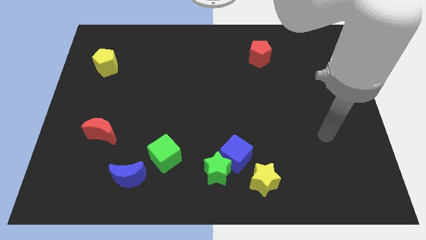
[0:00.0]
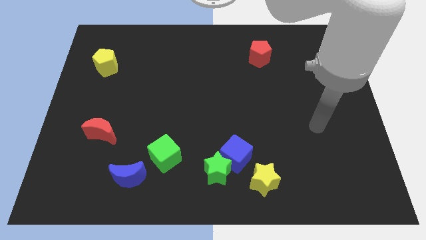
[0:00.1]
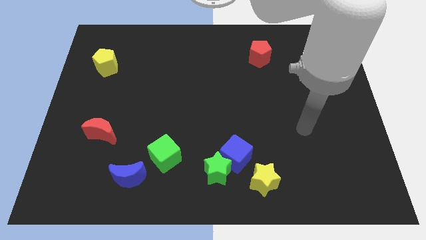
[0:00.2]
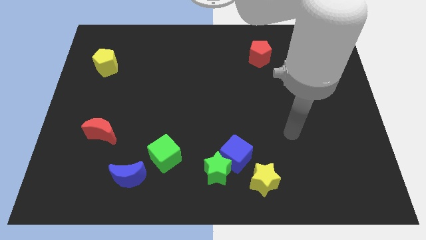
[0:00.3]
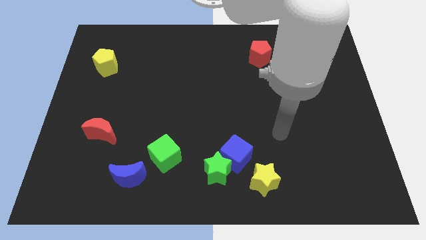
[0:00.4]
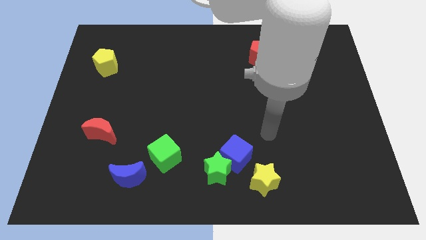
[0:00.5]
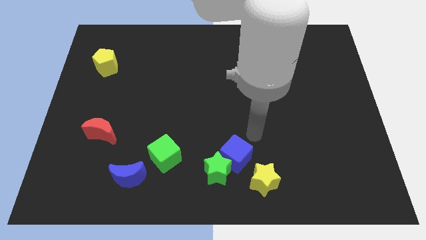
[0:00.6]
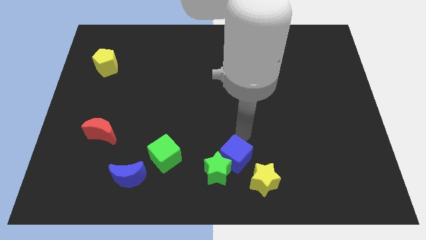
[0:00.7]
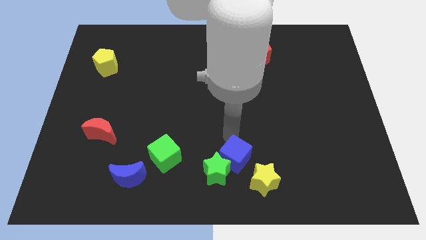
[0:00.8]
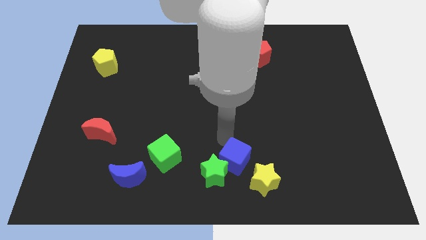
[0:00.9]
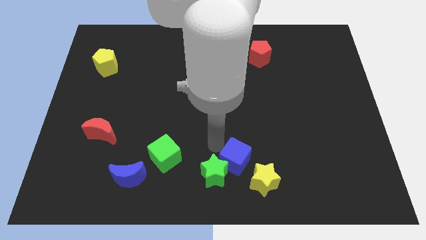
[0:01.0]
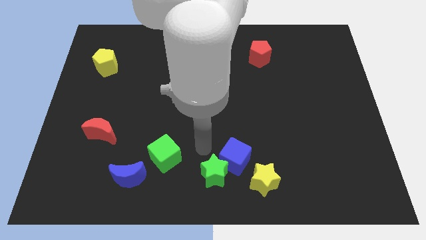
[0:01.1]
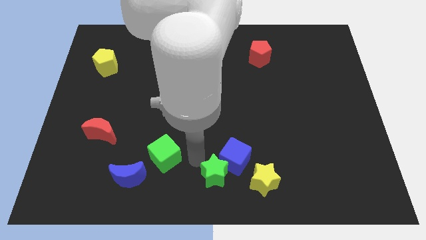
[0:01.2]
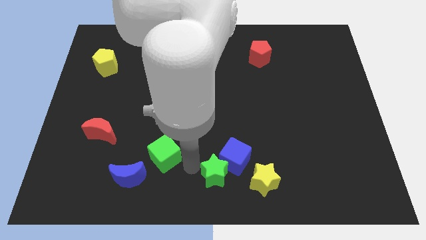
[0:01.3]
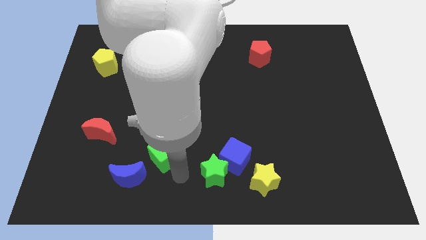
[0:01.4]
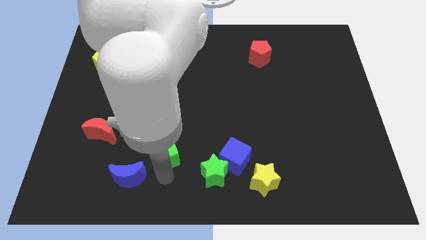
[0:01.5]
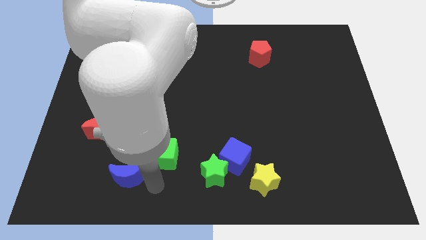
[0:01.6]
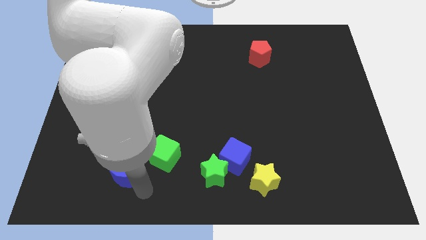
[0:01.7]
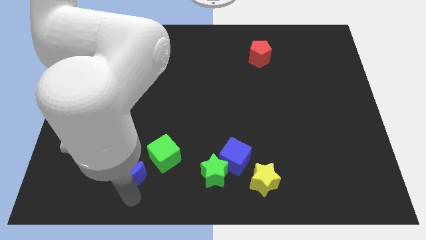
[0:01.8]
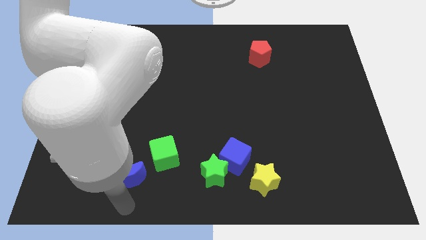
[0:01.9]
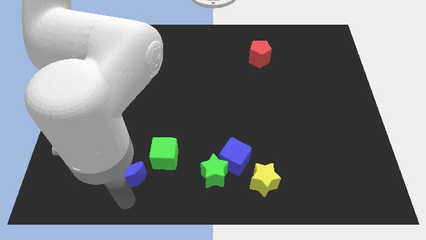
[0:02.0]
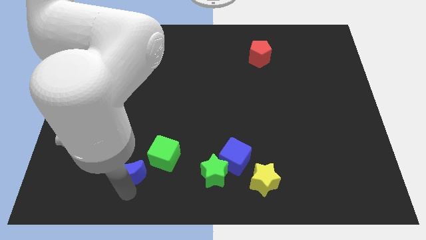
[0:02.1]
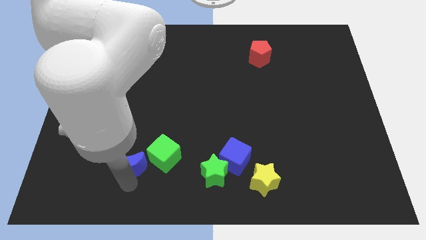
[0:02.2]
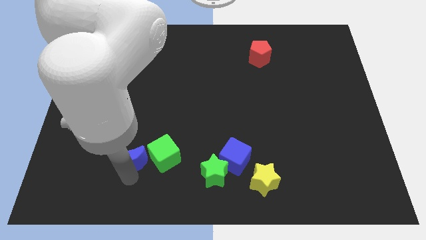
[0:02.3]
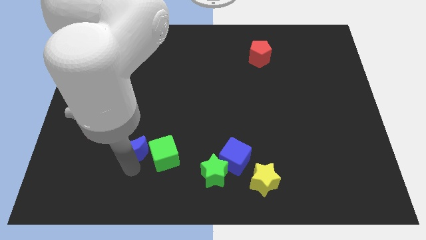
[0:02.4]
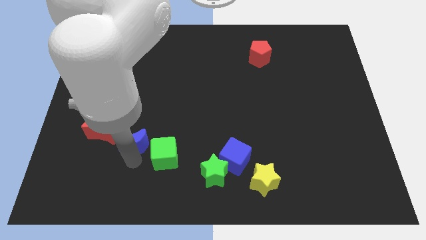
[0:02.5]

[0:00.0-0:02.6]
slightly slide the blue moon up

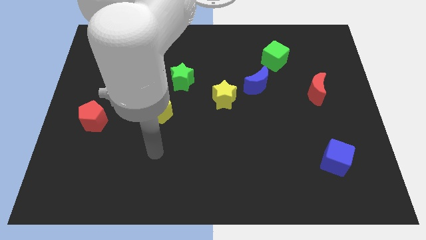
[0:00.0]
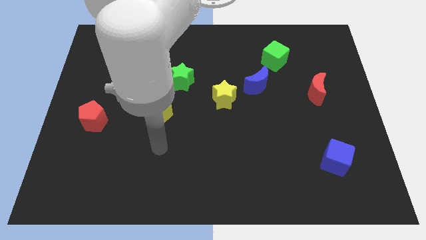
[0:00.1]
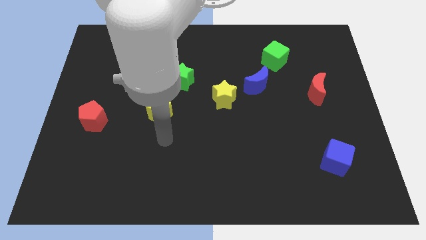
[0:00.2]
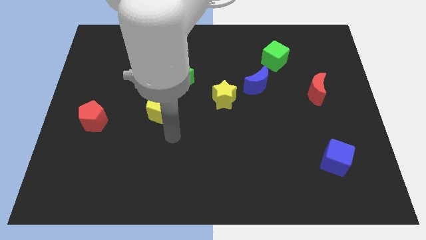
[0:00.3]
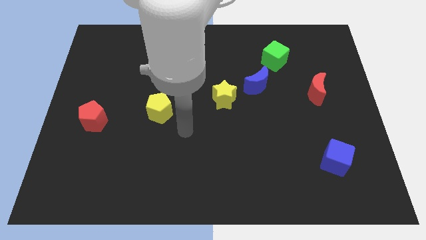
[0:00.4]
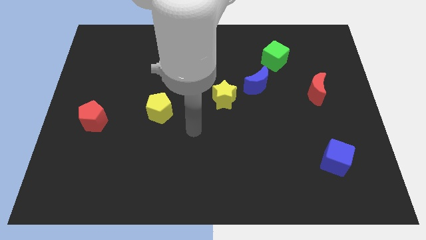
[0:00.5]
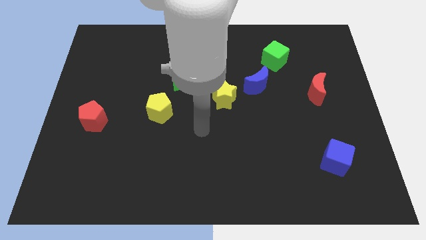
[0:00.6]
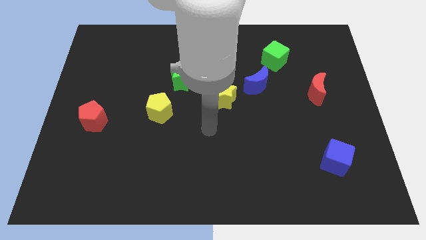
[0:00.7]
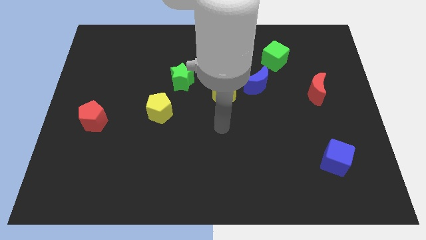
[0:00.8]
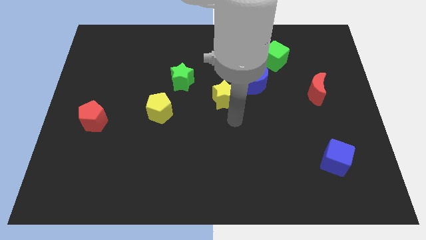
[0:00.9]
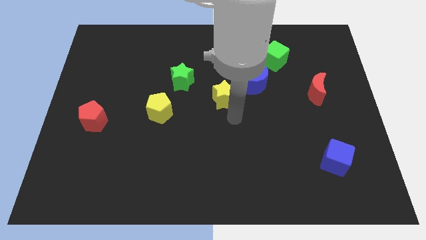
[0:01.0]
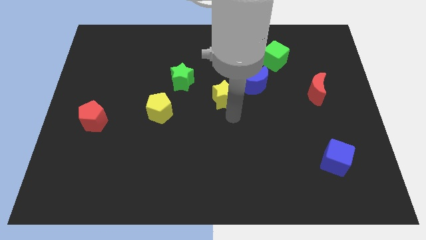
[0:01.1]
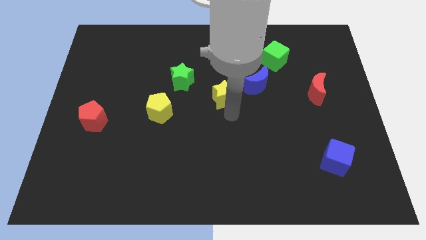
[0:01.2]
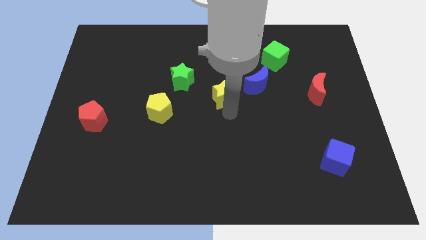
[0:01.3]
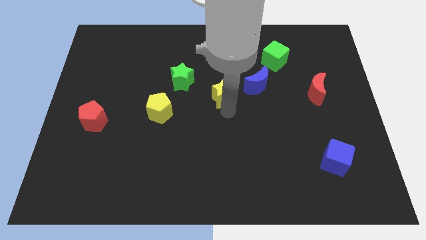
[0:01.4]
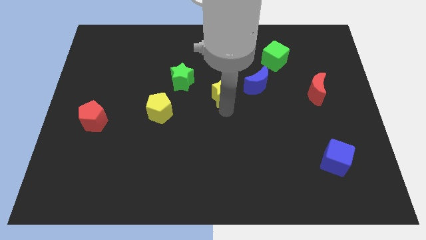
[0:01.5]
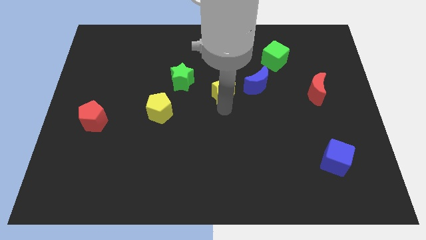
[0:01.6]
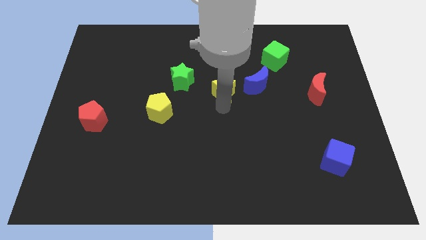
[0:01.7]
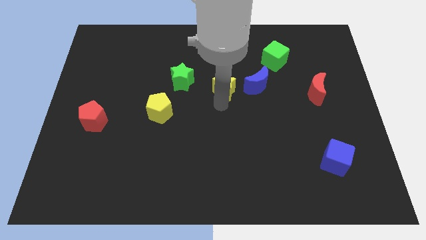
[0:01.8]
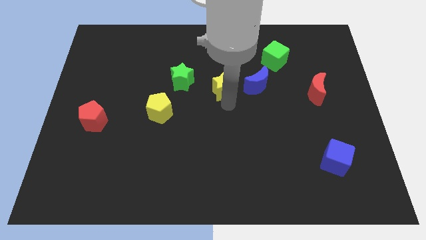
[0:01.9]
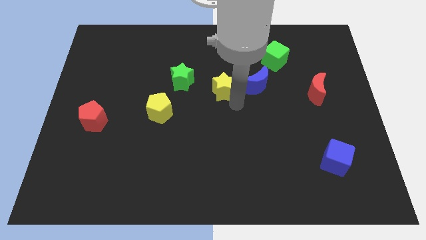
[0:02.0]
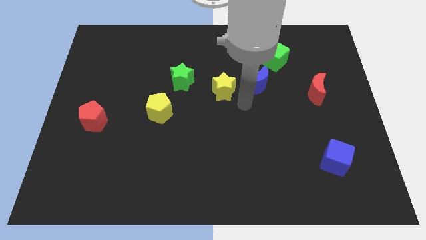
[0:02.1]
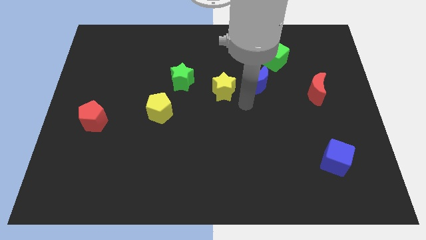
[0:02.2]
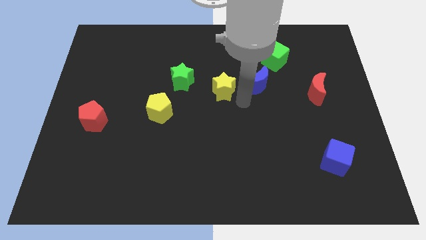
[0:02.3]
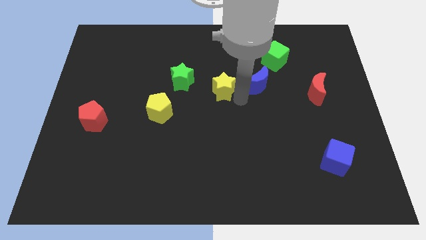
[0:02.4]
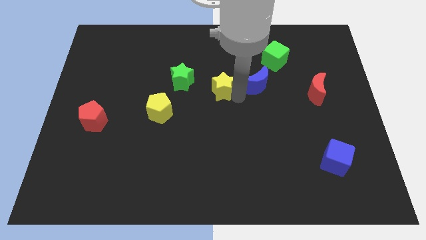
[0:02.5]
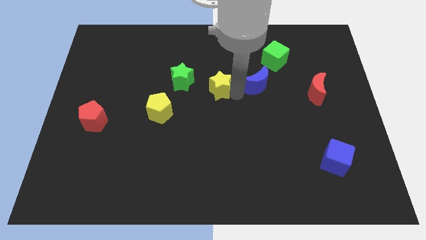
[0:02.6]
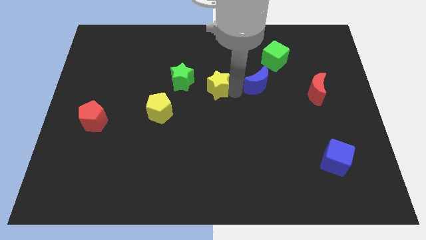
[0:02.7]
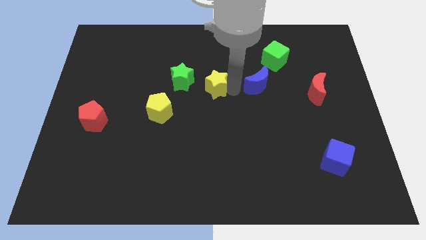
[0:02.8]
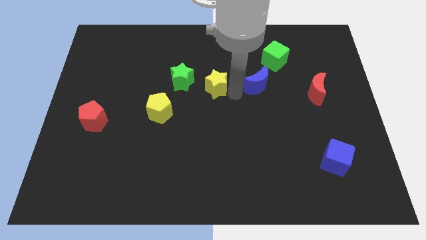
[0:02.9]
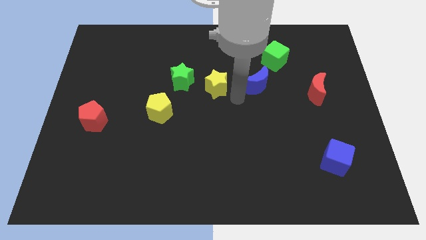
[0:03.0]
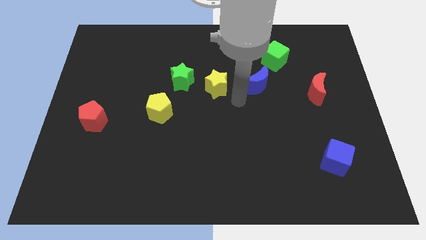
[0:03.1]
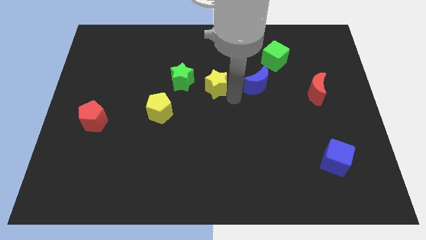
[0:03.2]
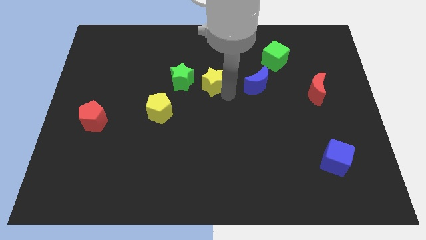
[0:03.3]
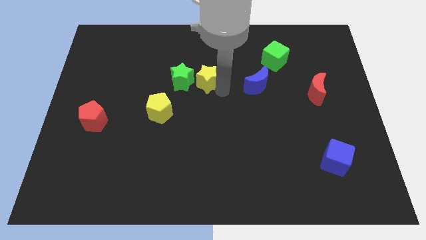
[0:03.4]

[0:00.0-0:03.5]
slide the yellow star a little up and then left

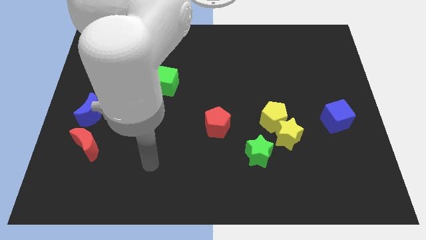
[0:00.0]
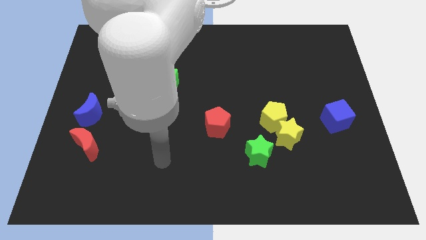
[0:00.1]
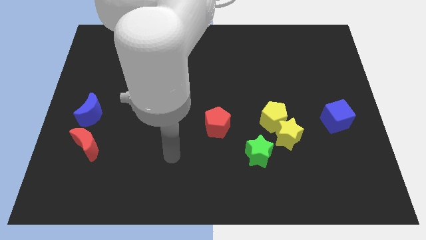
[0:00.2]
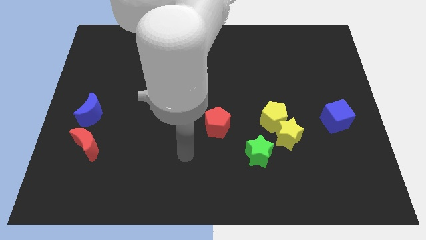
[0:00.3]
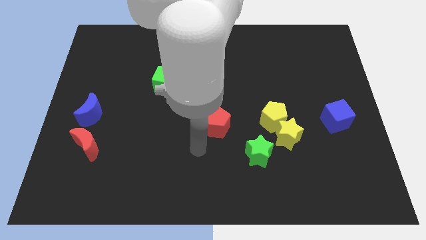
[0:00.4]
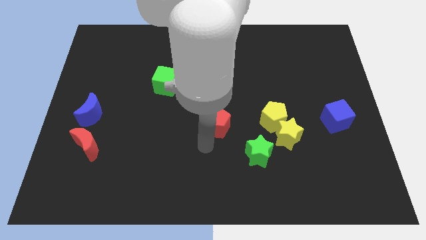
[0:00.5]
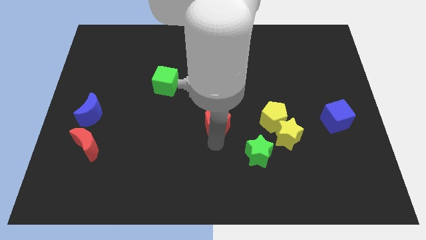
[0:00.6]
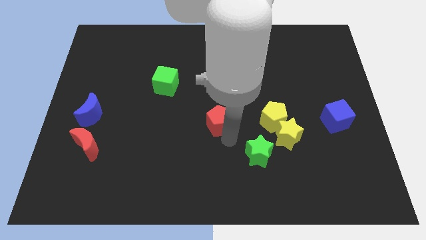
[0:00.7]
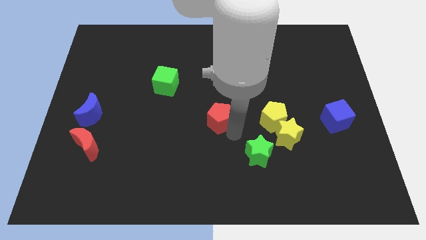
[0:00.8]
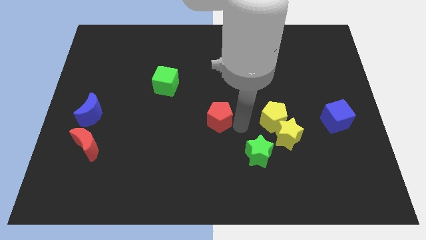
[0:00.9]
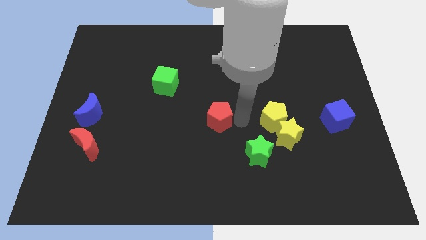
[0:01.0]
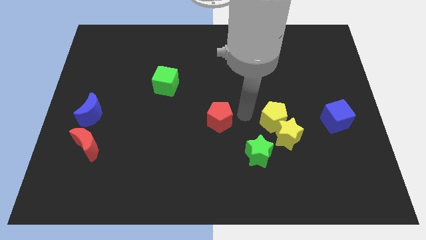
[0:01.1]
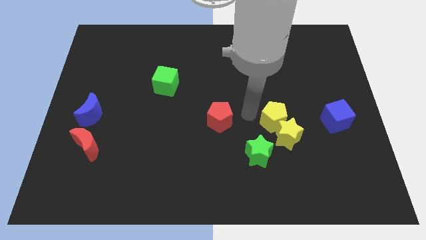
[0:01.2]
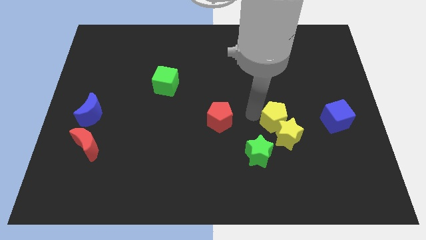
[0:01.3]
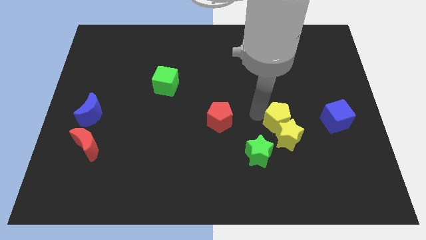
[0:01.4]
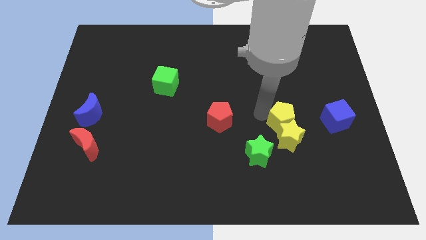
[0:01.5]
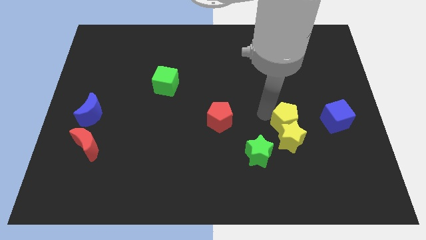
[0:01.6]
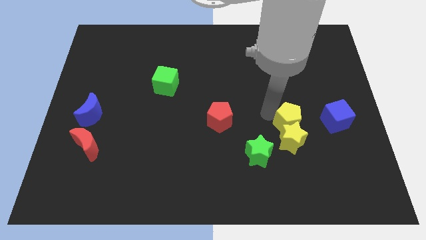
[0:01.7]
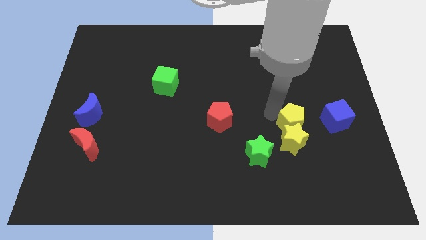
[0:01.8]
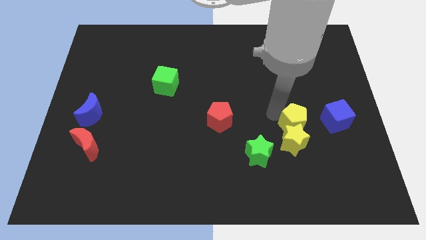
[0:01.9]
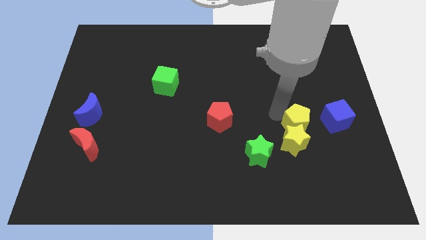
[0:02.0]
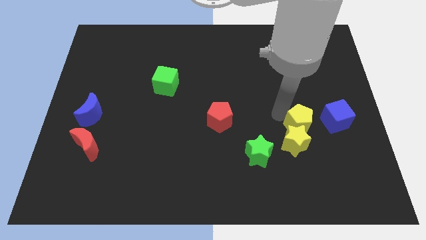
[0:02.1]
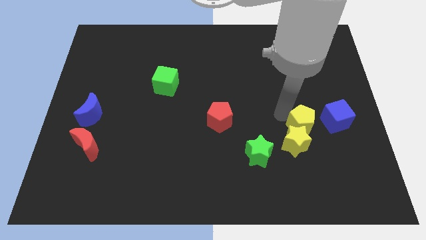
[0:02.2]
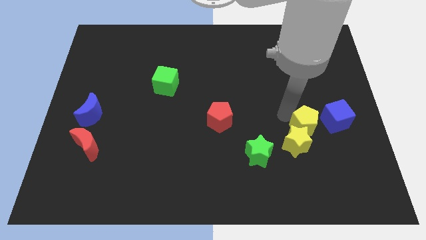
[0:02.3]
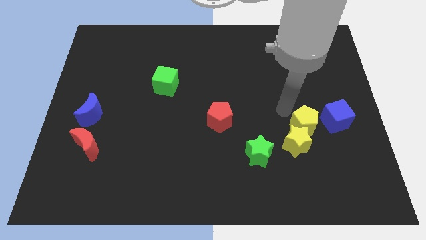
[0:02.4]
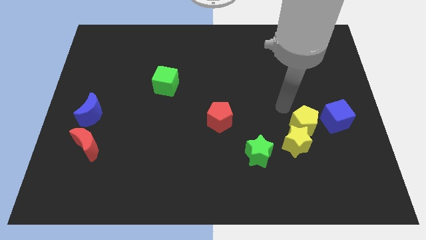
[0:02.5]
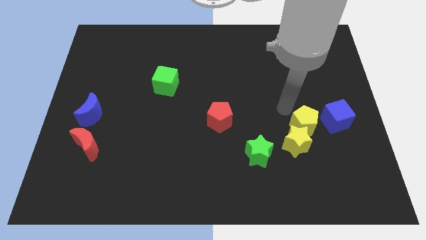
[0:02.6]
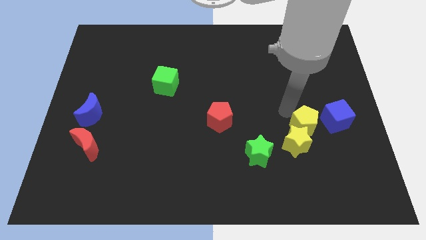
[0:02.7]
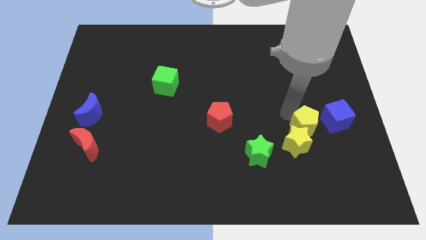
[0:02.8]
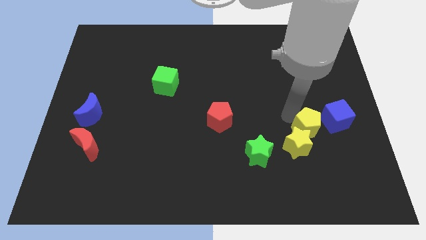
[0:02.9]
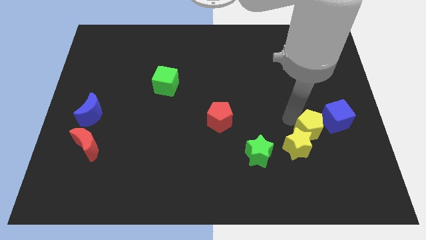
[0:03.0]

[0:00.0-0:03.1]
move the yellow pentagon down and to the right diagonally a little
